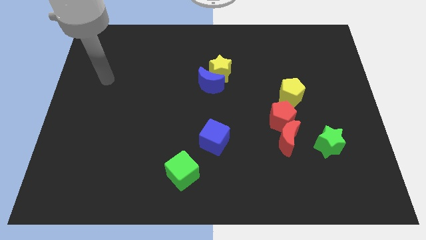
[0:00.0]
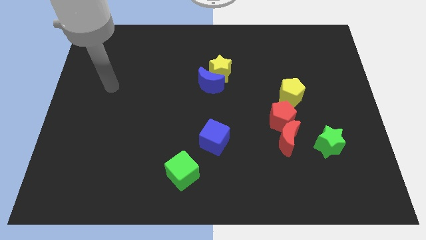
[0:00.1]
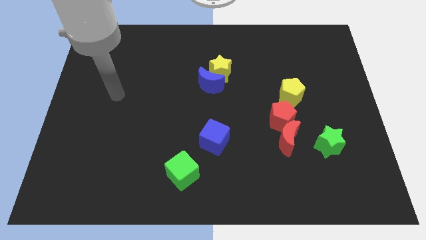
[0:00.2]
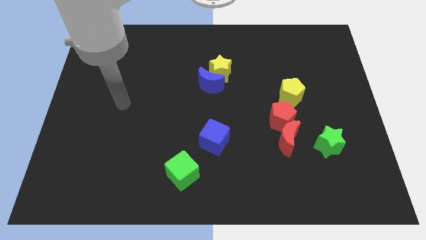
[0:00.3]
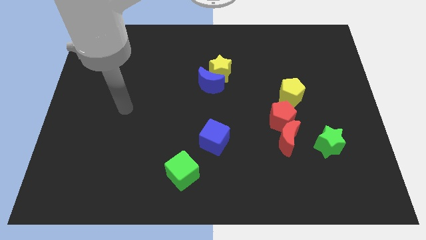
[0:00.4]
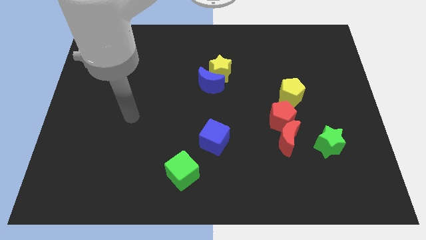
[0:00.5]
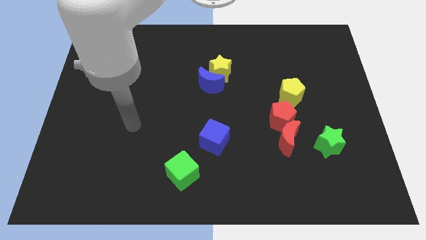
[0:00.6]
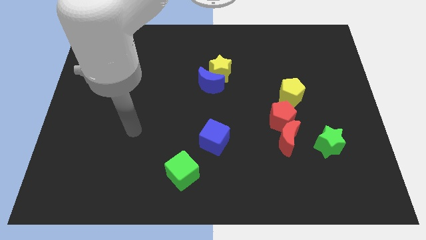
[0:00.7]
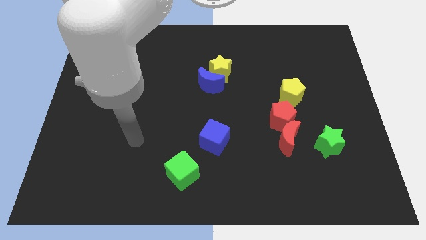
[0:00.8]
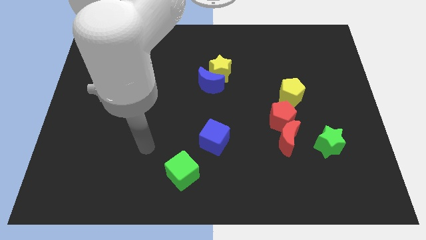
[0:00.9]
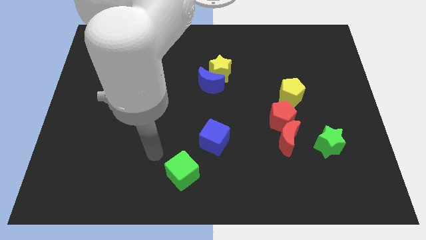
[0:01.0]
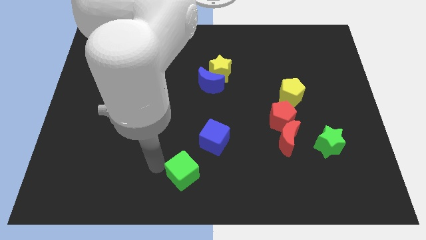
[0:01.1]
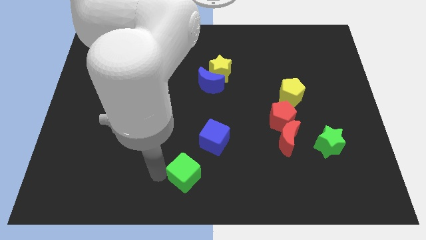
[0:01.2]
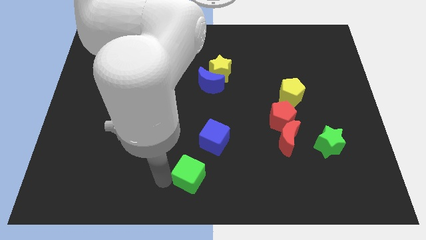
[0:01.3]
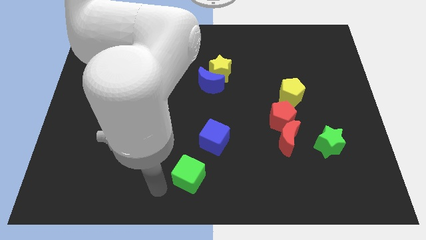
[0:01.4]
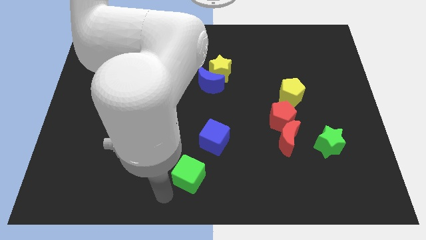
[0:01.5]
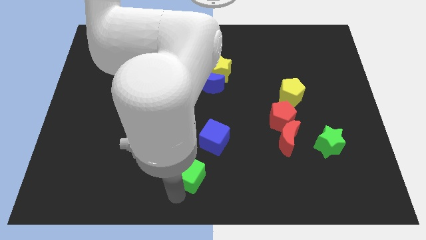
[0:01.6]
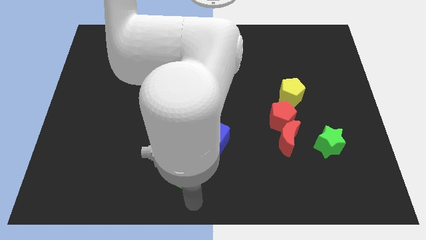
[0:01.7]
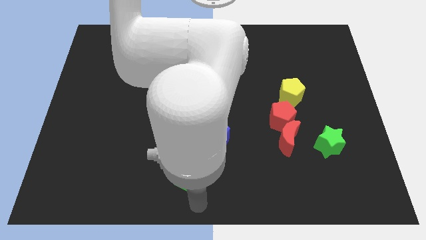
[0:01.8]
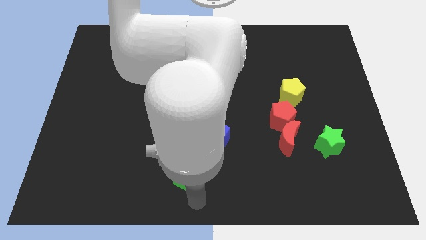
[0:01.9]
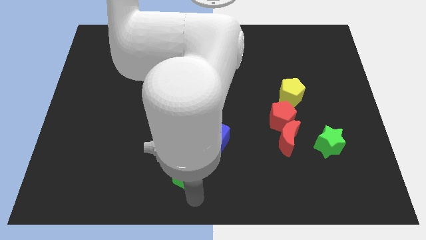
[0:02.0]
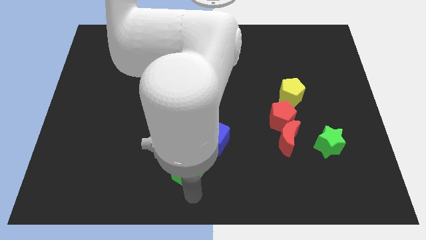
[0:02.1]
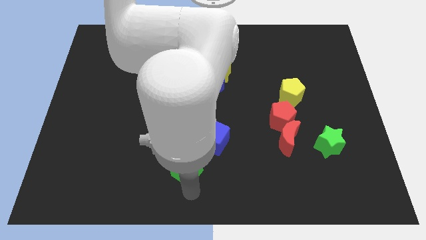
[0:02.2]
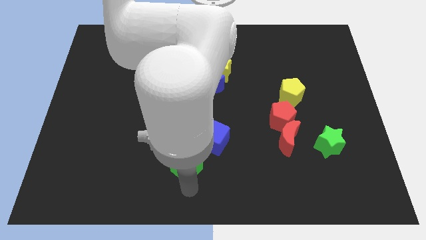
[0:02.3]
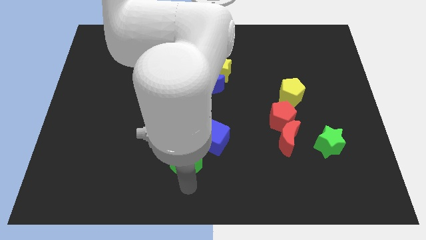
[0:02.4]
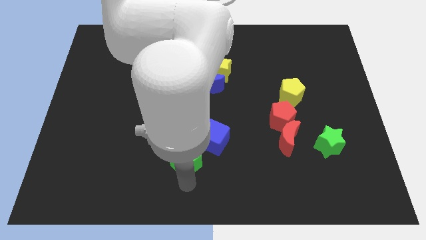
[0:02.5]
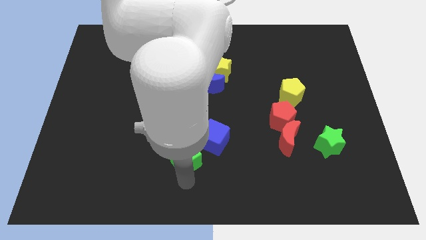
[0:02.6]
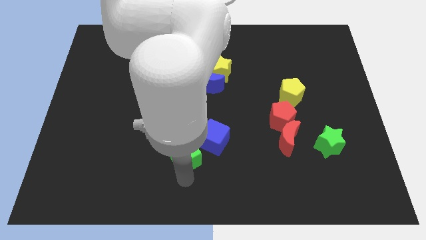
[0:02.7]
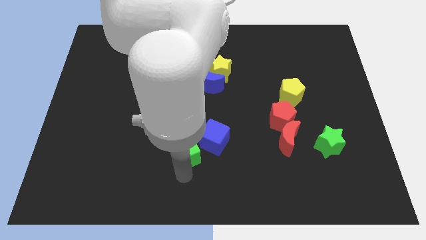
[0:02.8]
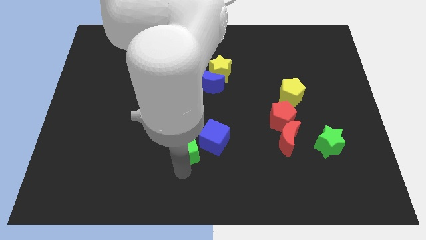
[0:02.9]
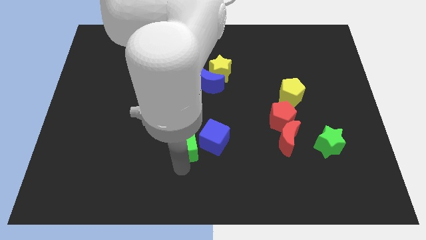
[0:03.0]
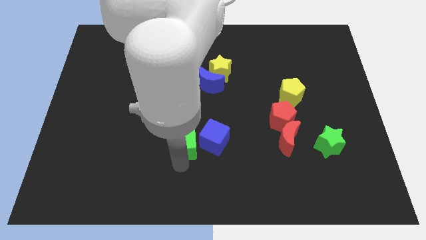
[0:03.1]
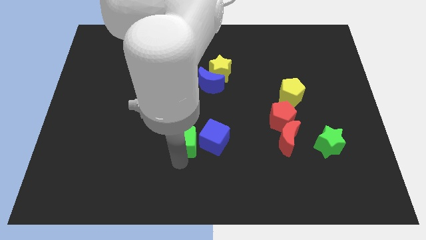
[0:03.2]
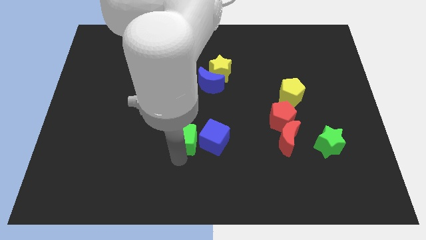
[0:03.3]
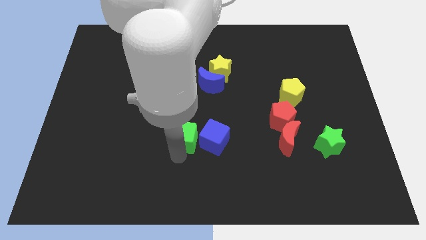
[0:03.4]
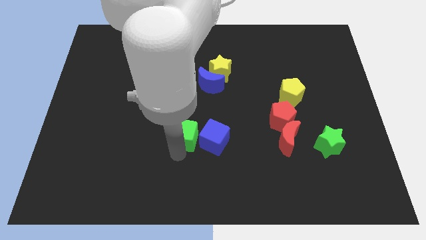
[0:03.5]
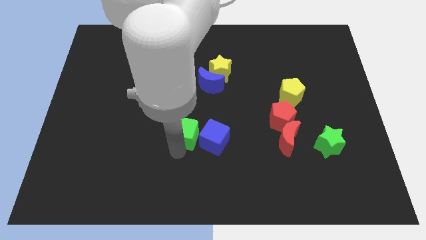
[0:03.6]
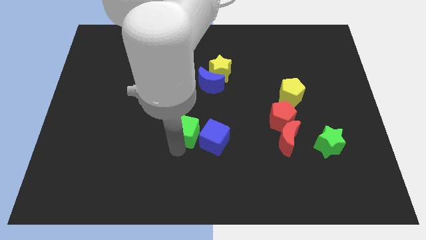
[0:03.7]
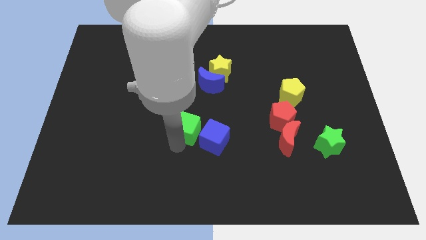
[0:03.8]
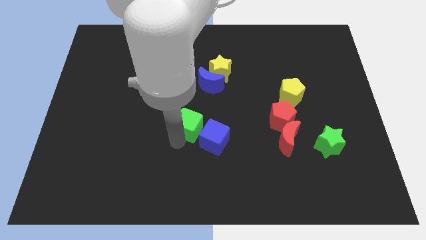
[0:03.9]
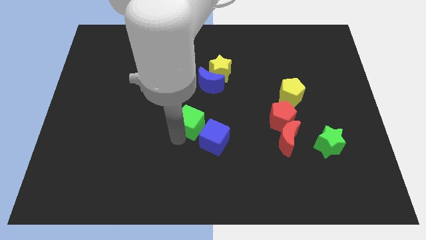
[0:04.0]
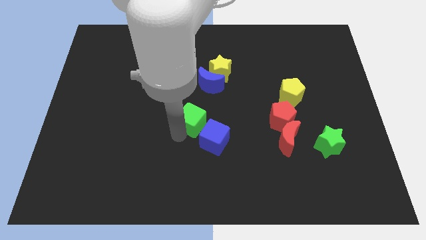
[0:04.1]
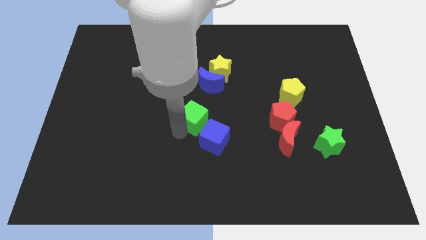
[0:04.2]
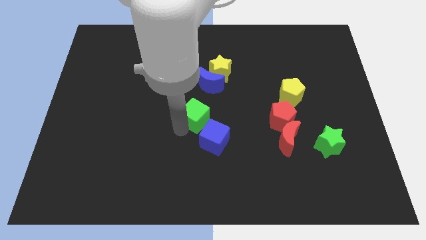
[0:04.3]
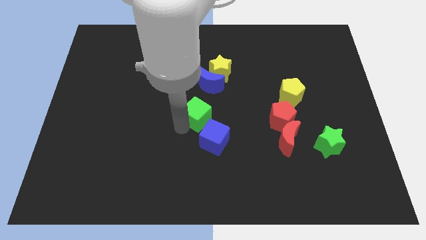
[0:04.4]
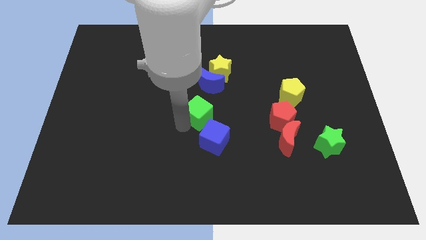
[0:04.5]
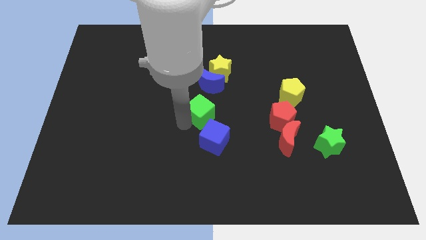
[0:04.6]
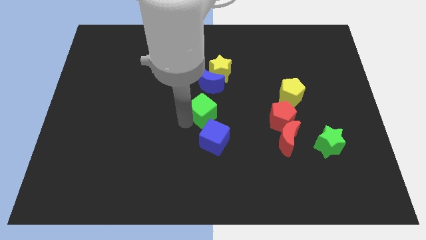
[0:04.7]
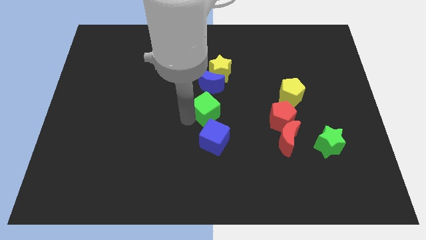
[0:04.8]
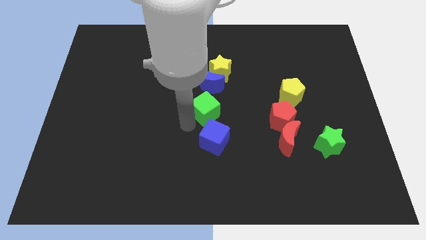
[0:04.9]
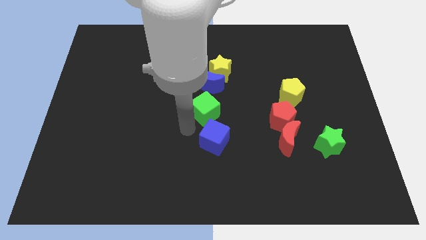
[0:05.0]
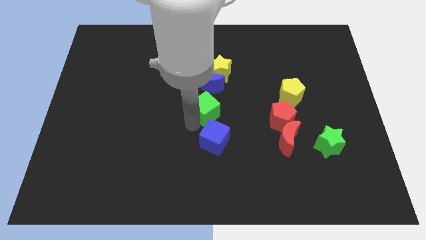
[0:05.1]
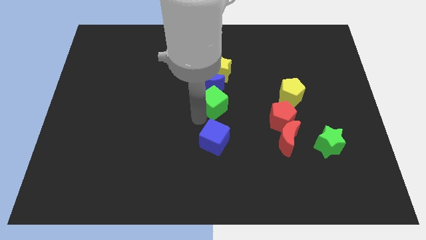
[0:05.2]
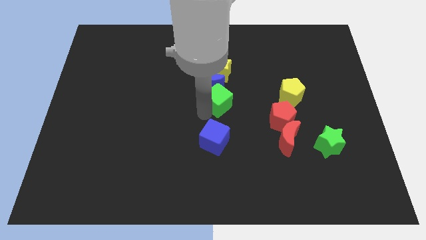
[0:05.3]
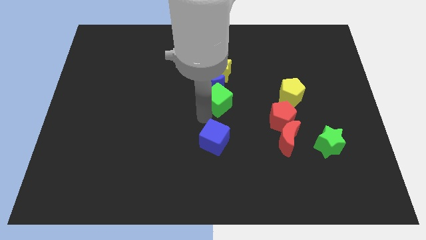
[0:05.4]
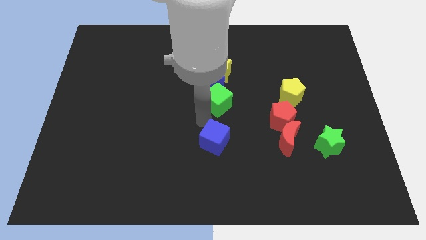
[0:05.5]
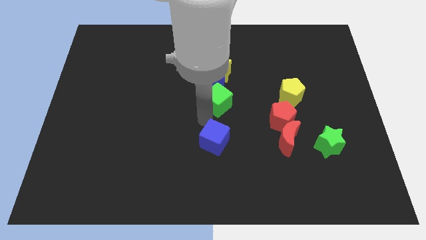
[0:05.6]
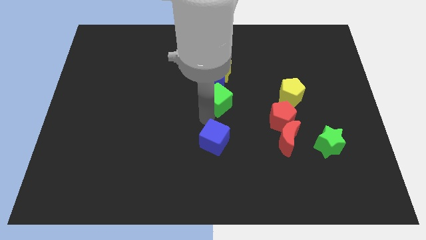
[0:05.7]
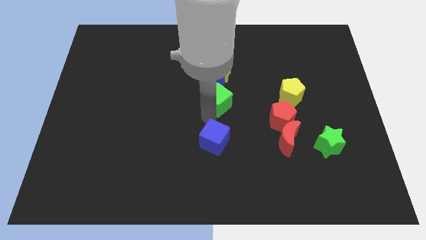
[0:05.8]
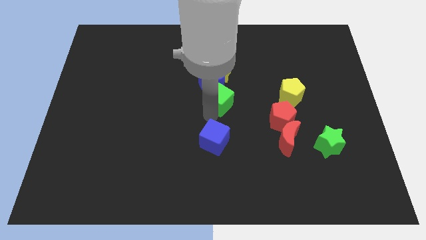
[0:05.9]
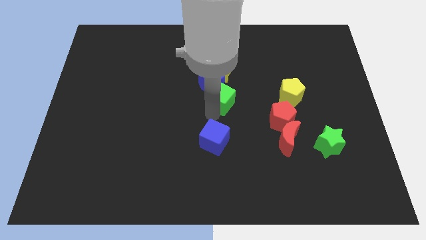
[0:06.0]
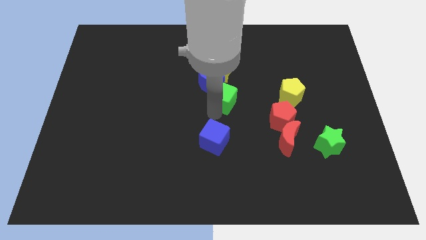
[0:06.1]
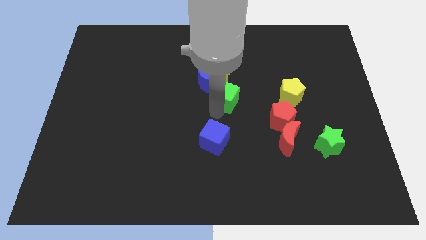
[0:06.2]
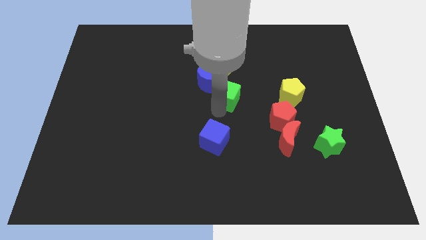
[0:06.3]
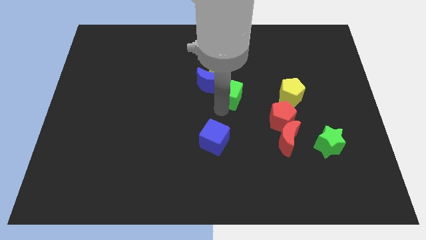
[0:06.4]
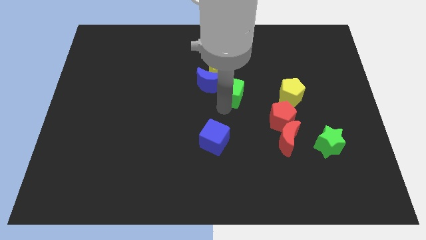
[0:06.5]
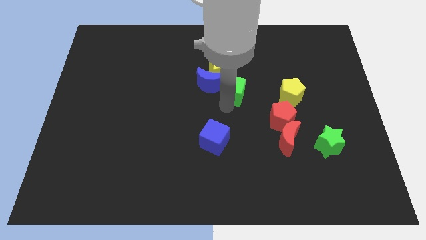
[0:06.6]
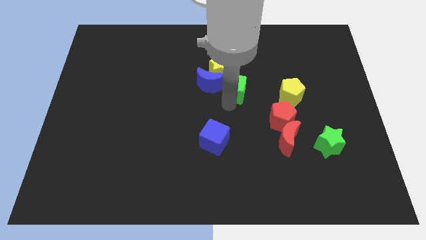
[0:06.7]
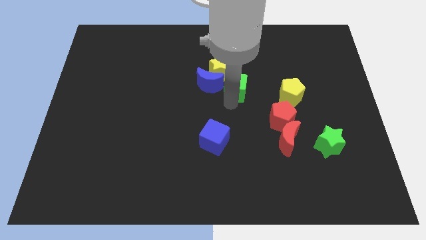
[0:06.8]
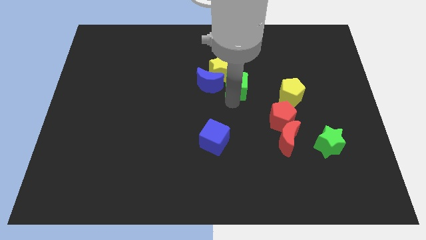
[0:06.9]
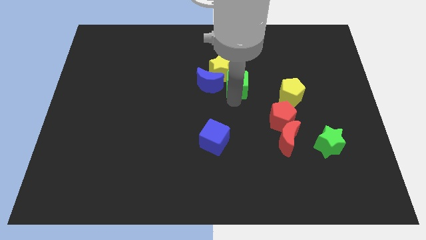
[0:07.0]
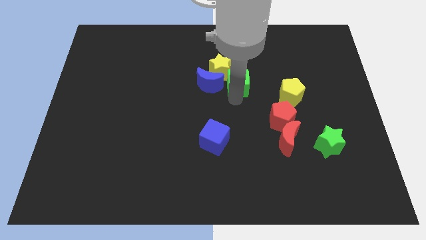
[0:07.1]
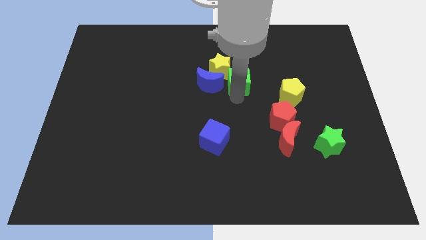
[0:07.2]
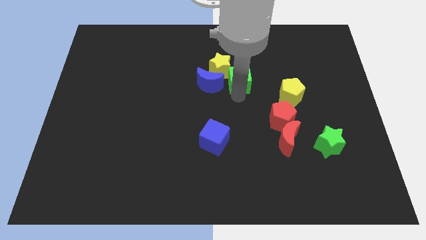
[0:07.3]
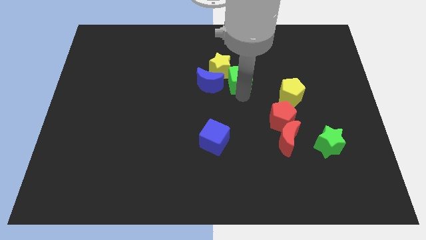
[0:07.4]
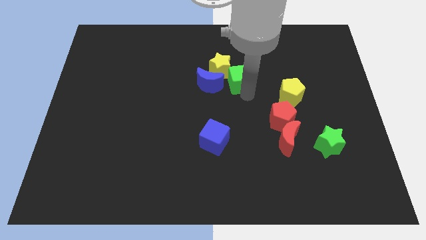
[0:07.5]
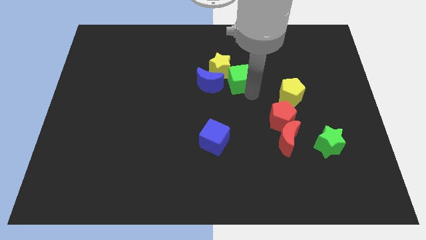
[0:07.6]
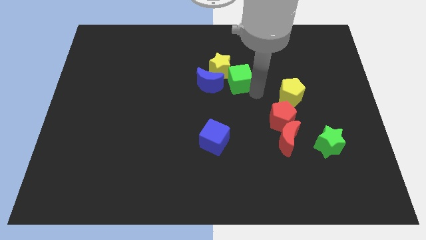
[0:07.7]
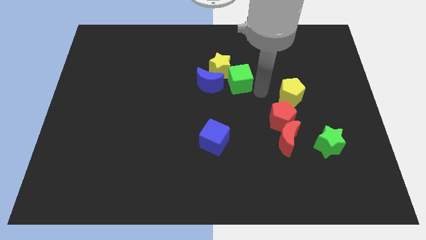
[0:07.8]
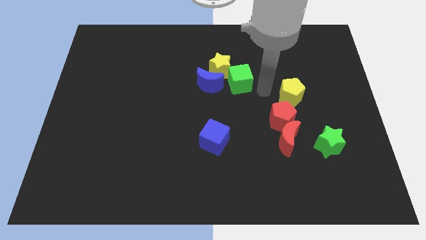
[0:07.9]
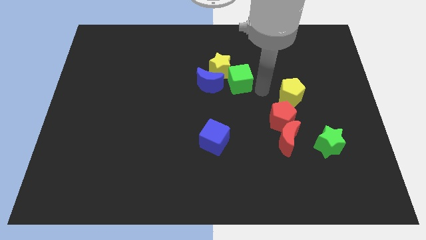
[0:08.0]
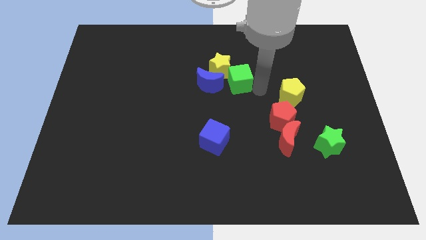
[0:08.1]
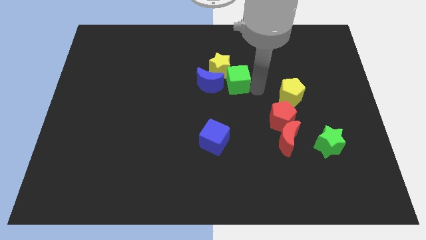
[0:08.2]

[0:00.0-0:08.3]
slide the green cube close to the yellow star
